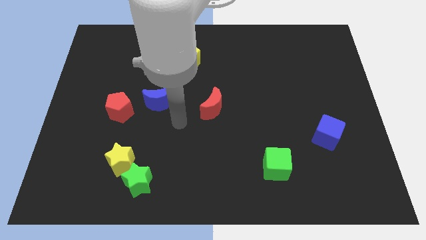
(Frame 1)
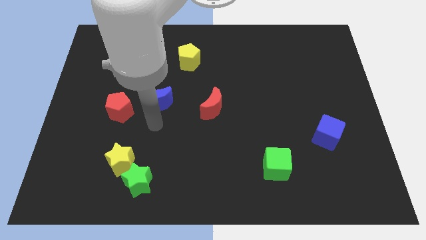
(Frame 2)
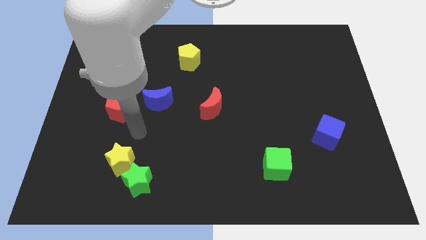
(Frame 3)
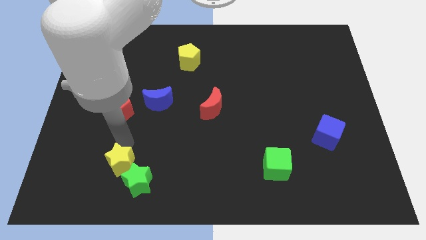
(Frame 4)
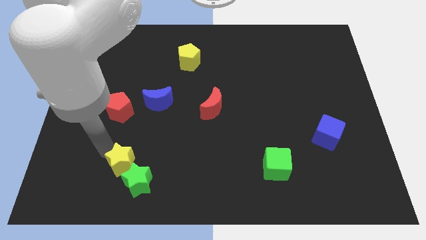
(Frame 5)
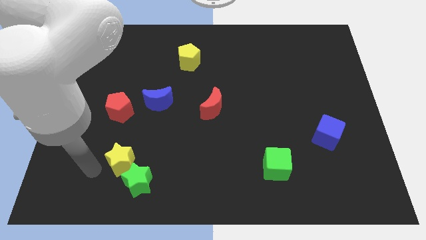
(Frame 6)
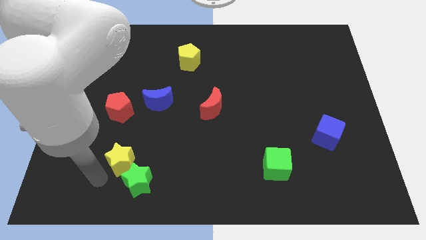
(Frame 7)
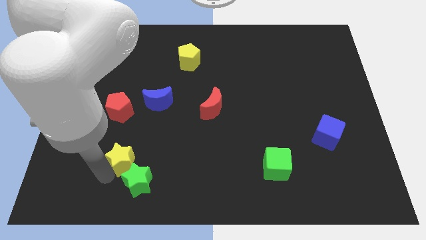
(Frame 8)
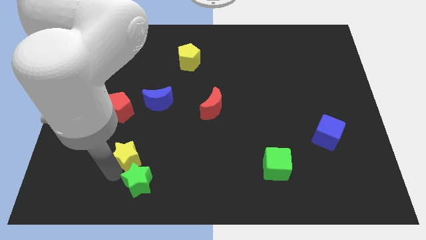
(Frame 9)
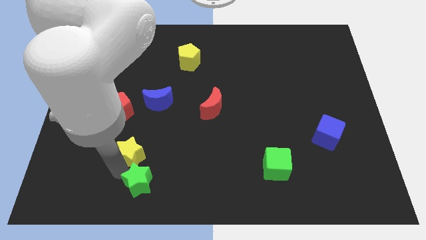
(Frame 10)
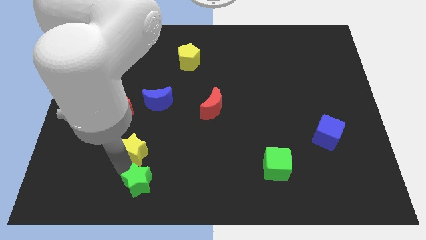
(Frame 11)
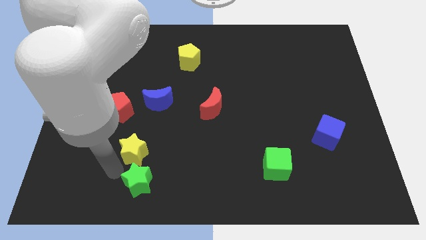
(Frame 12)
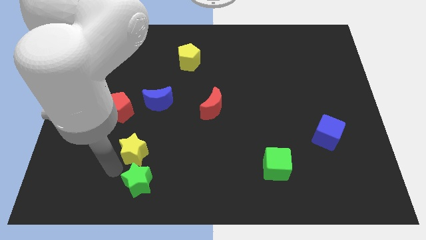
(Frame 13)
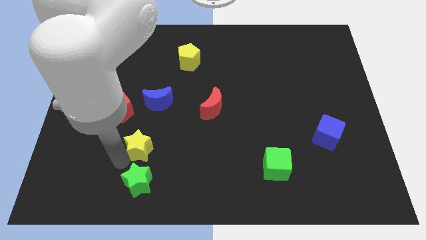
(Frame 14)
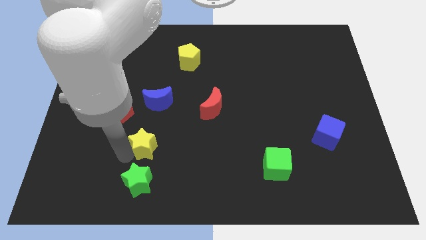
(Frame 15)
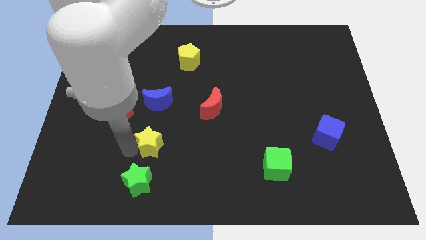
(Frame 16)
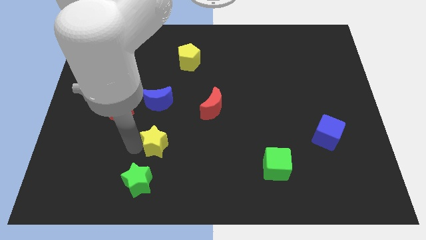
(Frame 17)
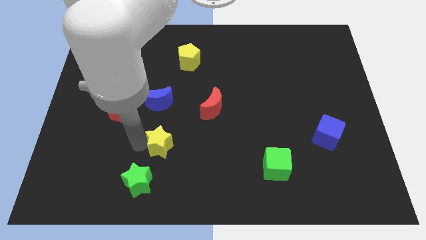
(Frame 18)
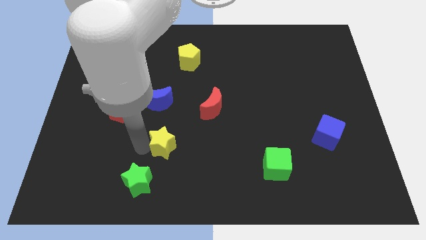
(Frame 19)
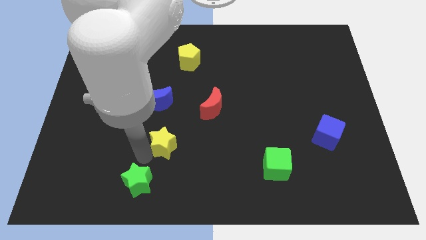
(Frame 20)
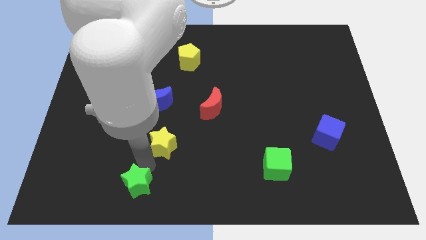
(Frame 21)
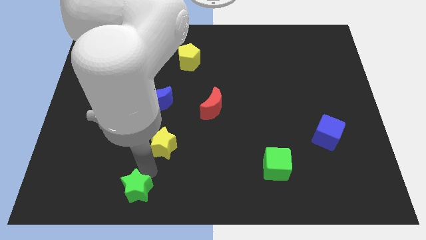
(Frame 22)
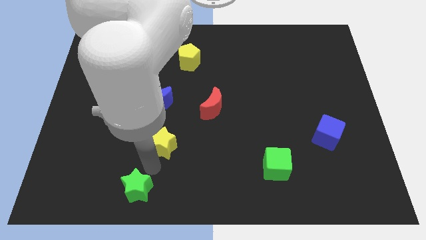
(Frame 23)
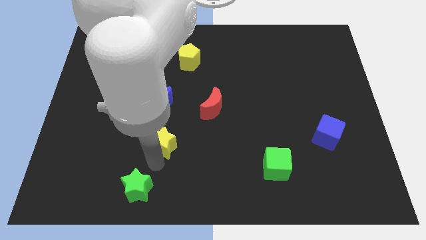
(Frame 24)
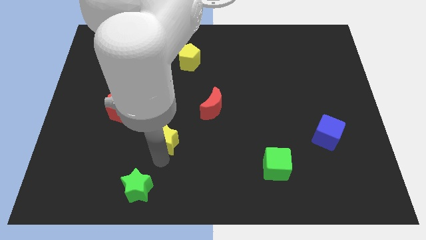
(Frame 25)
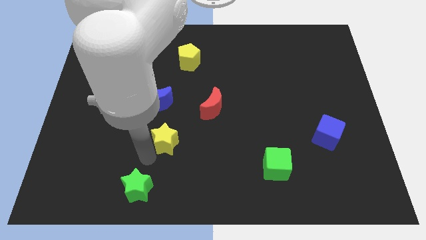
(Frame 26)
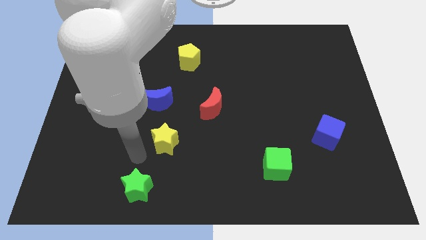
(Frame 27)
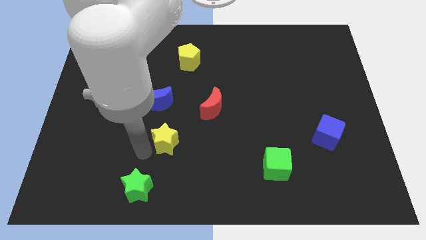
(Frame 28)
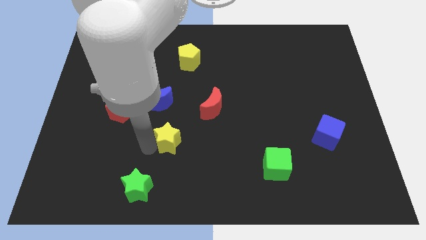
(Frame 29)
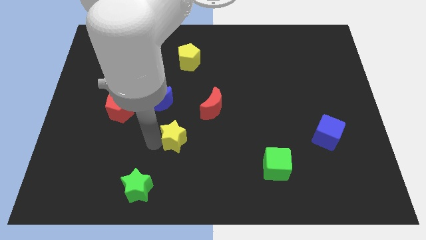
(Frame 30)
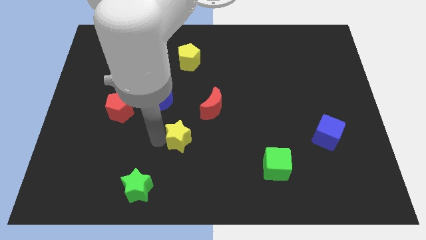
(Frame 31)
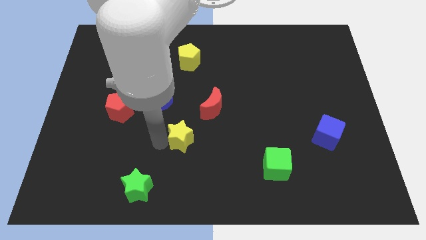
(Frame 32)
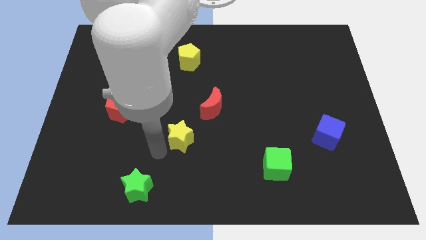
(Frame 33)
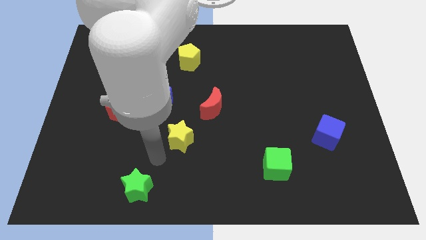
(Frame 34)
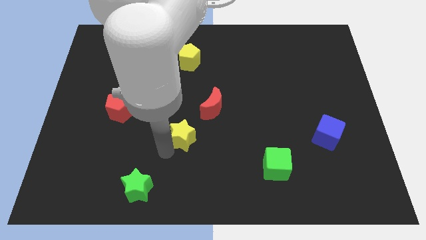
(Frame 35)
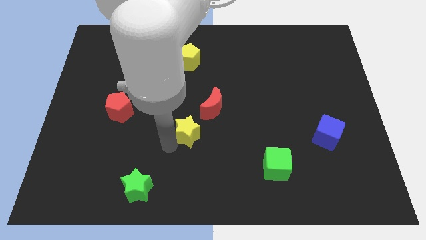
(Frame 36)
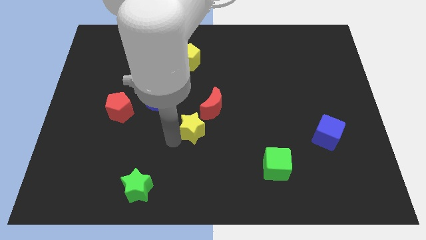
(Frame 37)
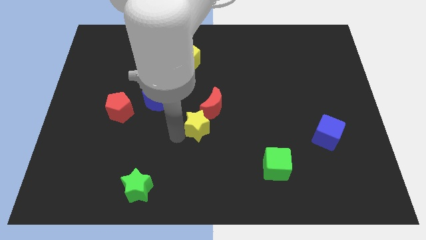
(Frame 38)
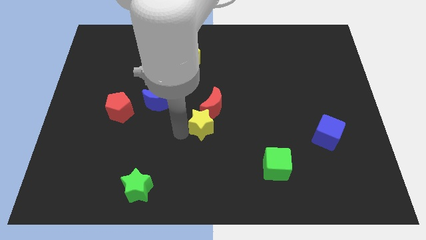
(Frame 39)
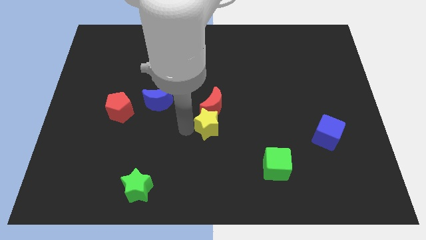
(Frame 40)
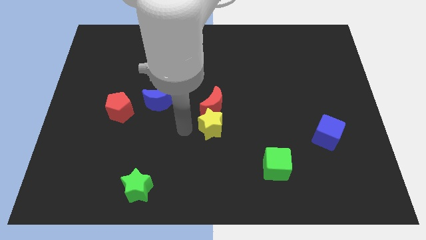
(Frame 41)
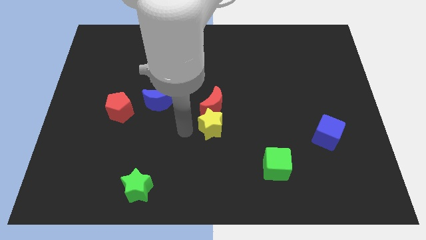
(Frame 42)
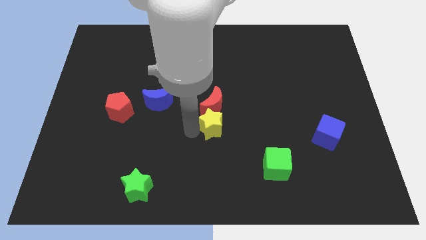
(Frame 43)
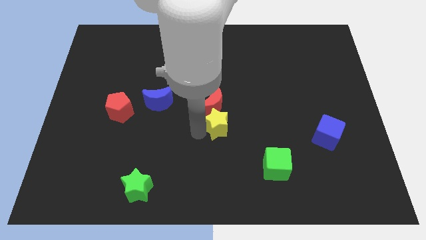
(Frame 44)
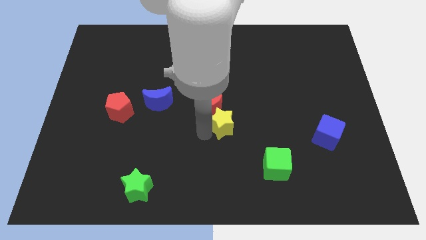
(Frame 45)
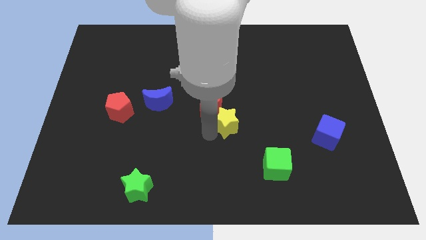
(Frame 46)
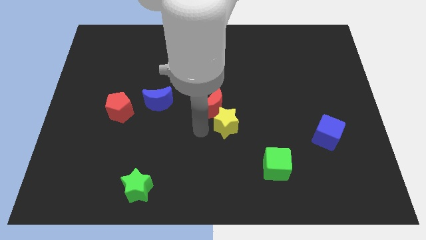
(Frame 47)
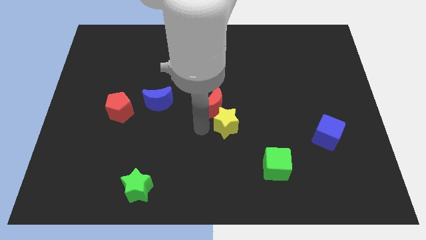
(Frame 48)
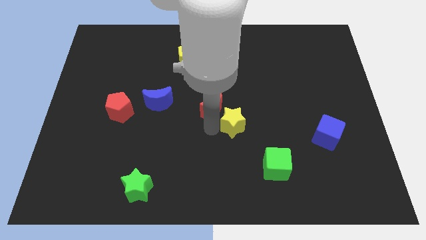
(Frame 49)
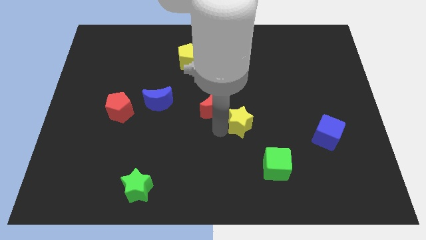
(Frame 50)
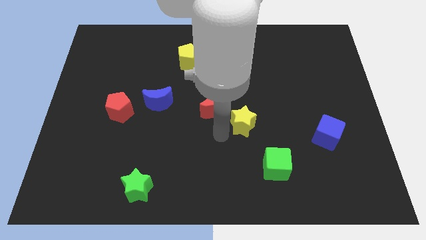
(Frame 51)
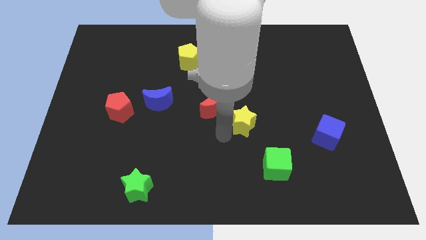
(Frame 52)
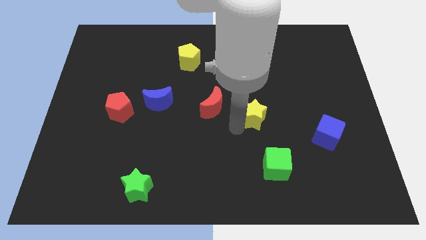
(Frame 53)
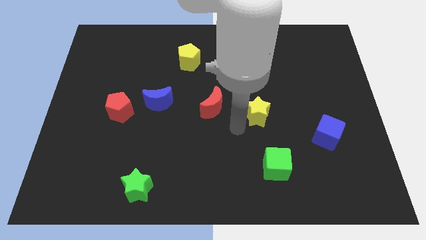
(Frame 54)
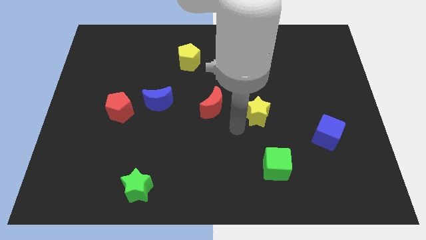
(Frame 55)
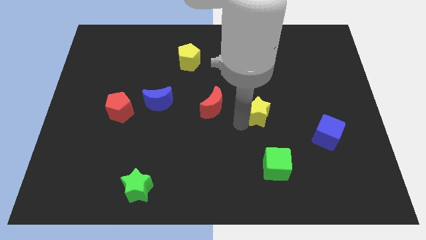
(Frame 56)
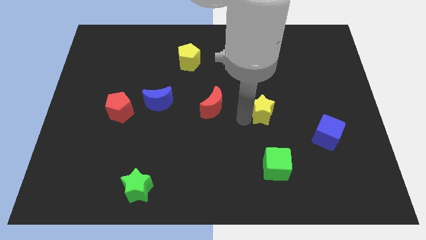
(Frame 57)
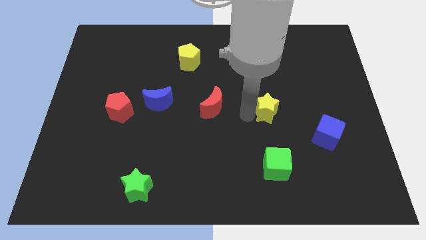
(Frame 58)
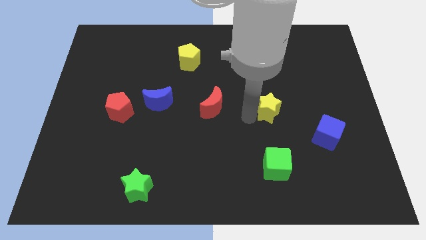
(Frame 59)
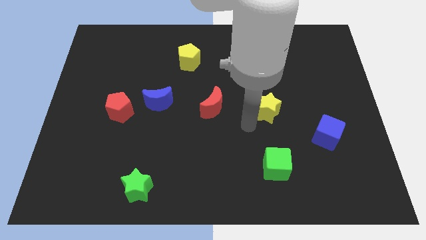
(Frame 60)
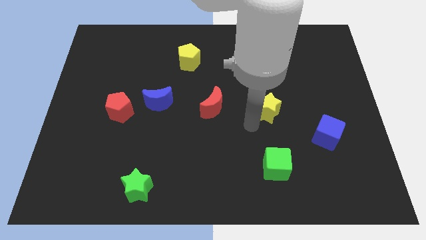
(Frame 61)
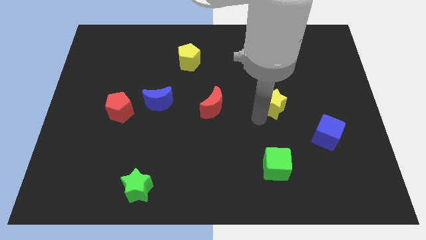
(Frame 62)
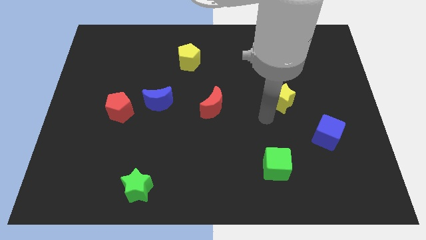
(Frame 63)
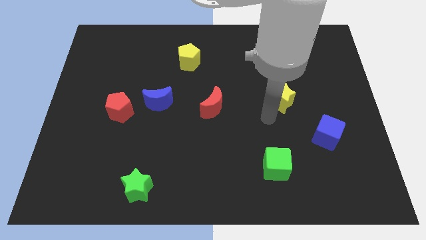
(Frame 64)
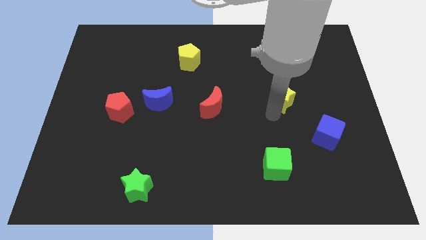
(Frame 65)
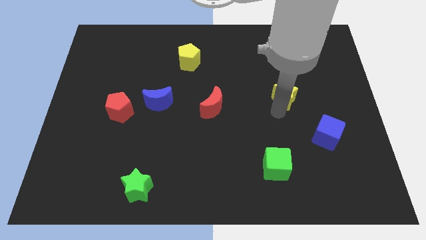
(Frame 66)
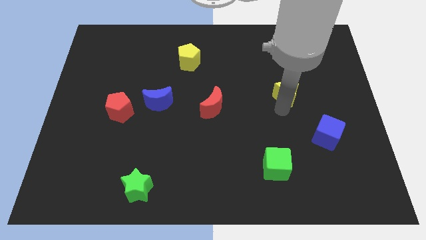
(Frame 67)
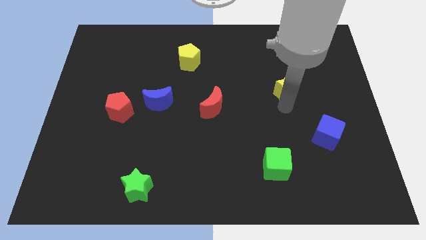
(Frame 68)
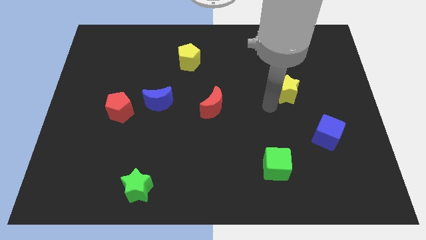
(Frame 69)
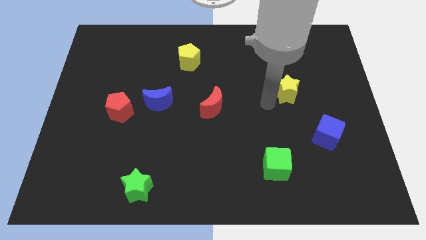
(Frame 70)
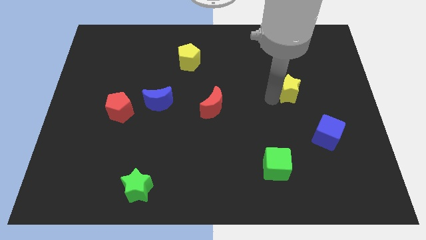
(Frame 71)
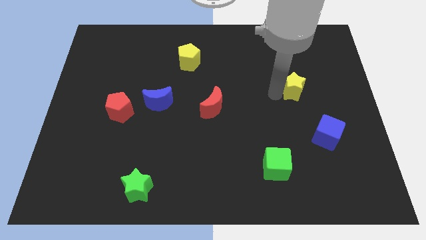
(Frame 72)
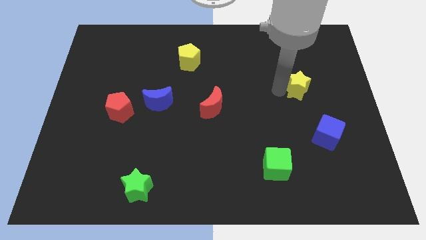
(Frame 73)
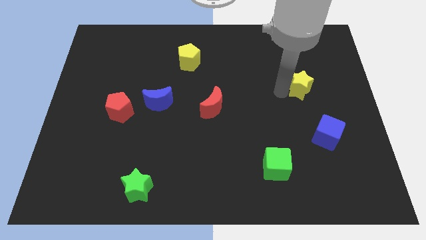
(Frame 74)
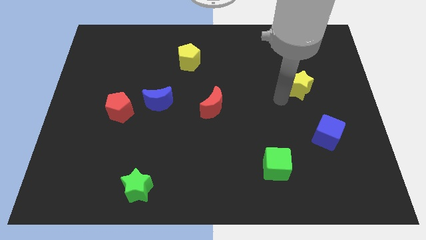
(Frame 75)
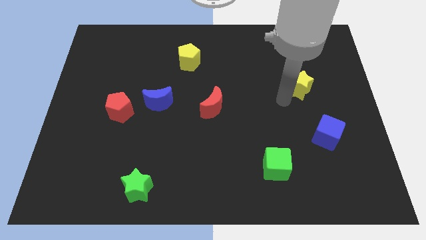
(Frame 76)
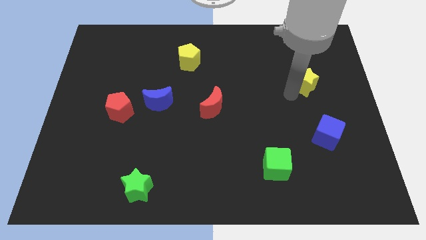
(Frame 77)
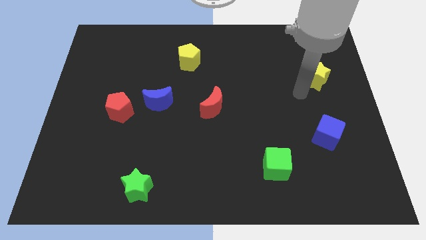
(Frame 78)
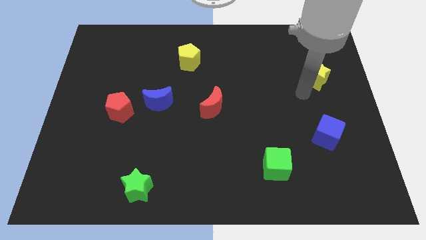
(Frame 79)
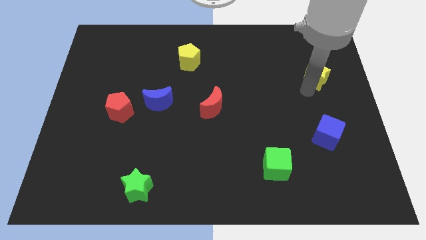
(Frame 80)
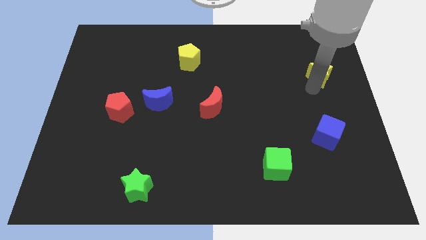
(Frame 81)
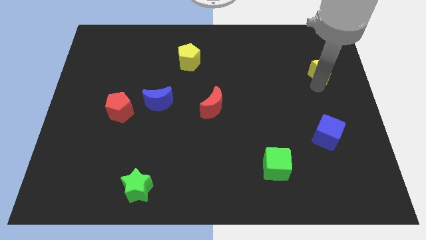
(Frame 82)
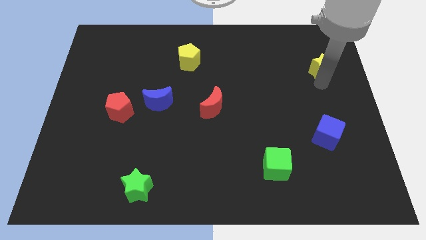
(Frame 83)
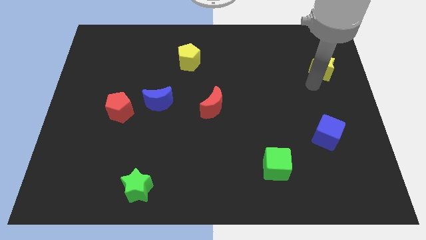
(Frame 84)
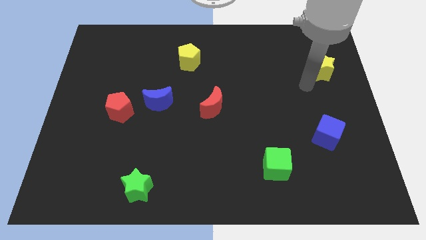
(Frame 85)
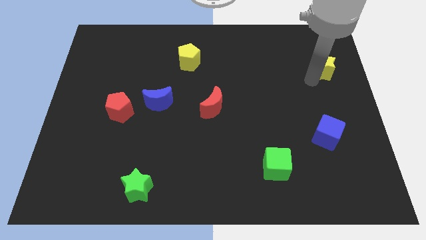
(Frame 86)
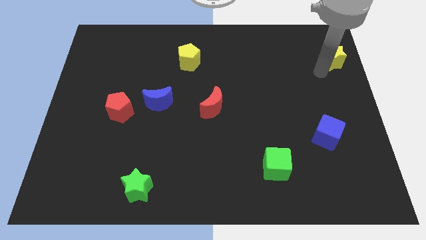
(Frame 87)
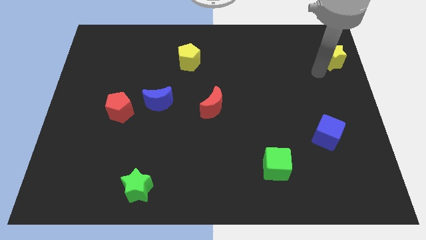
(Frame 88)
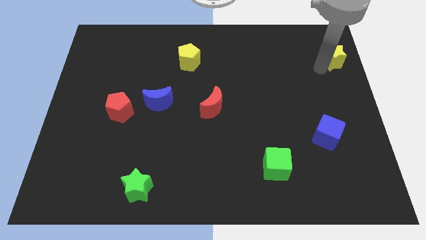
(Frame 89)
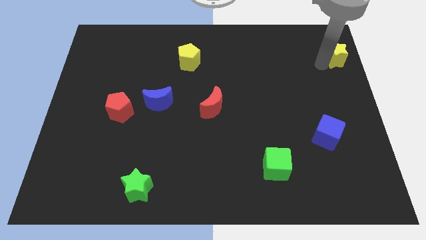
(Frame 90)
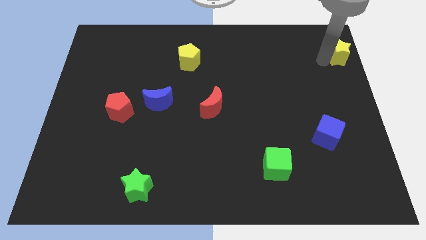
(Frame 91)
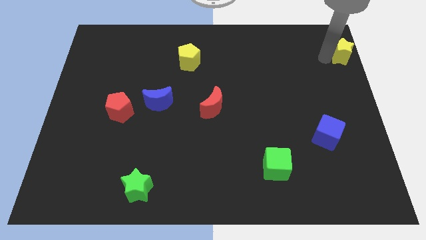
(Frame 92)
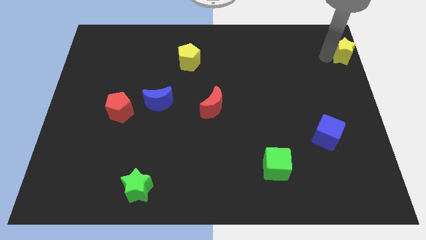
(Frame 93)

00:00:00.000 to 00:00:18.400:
slide the yellow star to the top right corner
